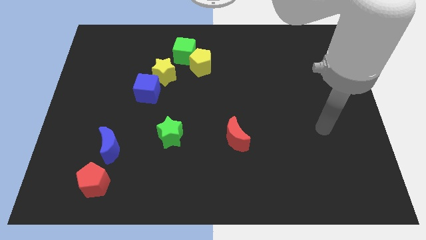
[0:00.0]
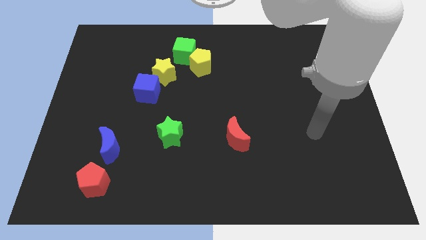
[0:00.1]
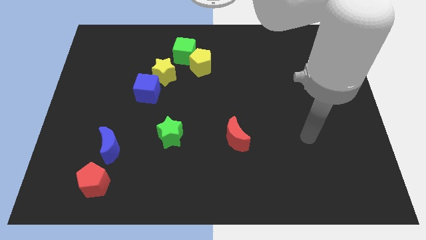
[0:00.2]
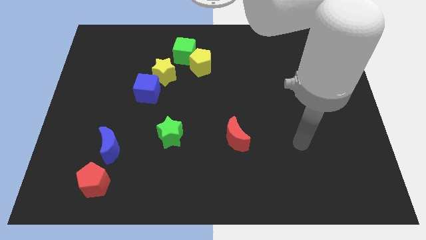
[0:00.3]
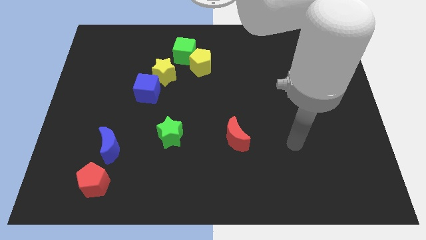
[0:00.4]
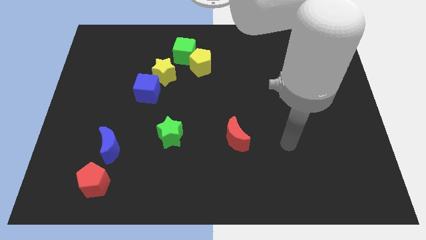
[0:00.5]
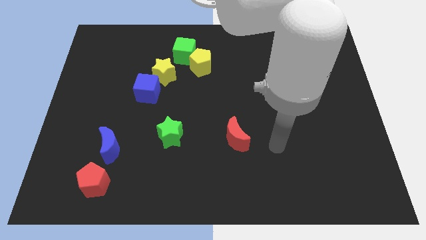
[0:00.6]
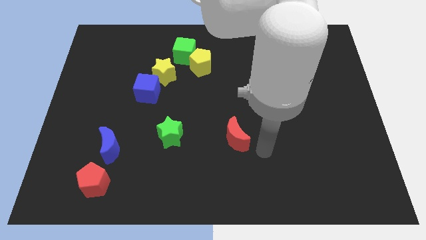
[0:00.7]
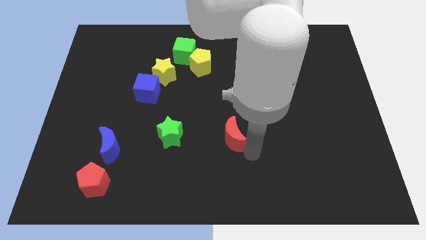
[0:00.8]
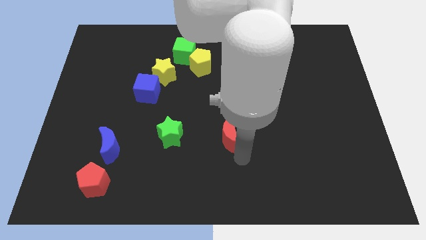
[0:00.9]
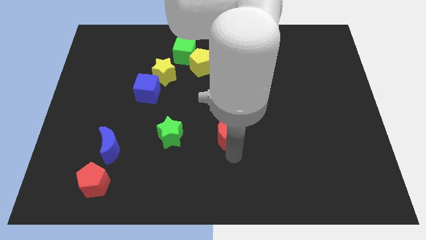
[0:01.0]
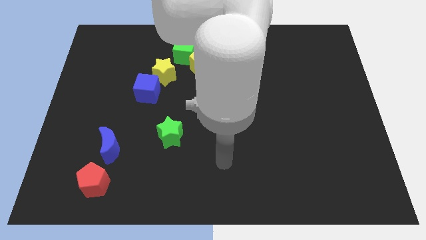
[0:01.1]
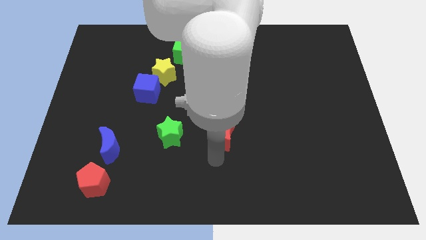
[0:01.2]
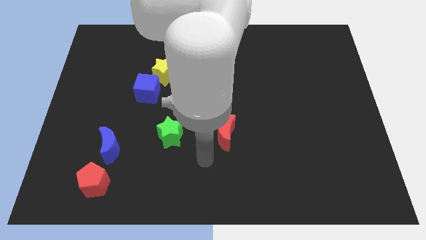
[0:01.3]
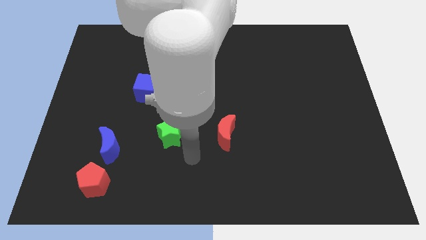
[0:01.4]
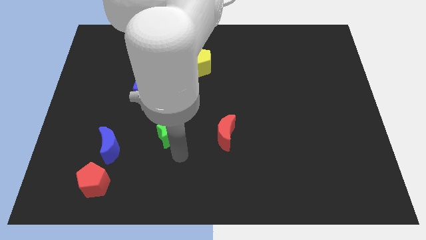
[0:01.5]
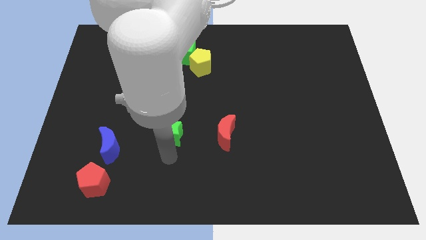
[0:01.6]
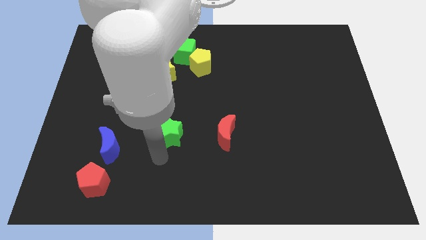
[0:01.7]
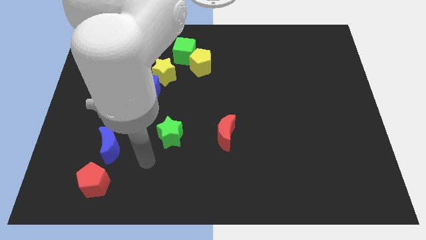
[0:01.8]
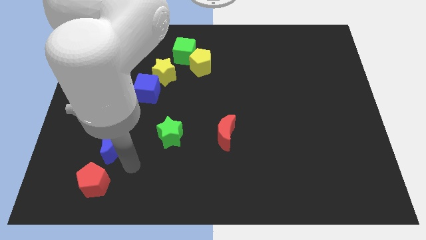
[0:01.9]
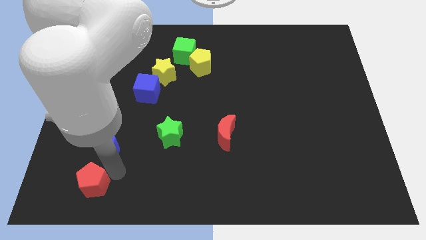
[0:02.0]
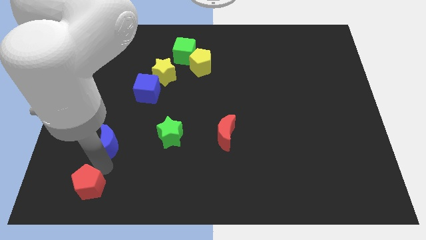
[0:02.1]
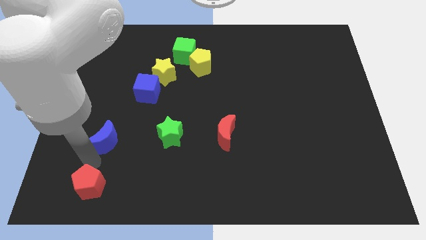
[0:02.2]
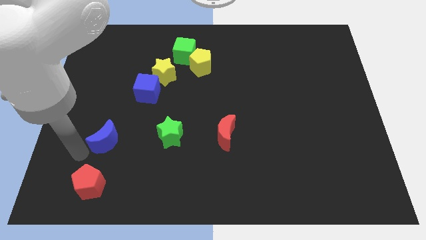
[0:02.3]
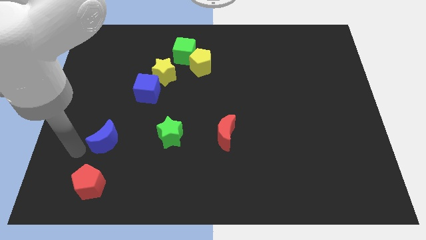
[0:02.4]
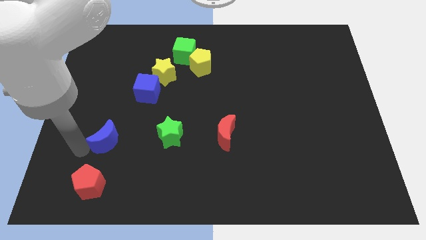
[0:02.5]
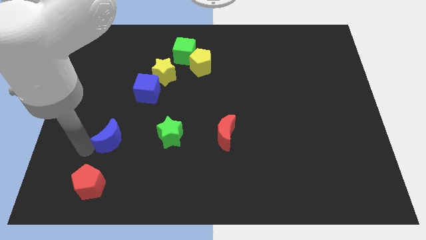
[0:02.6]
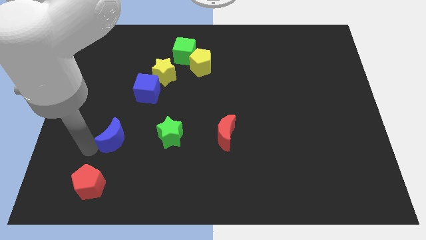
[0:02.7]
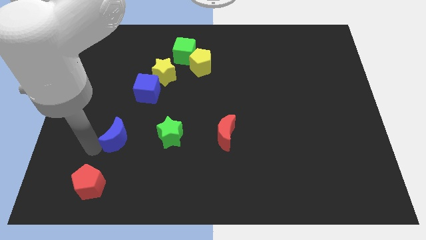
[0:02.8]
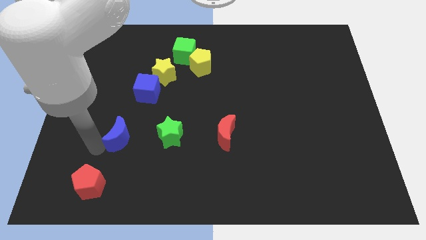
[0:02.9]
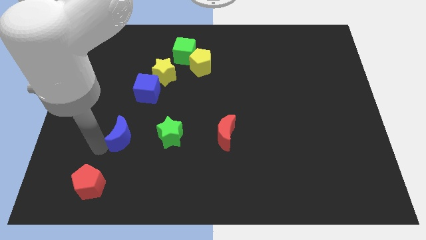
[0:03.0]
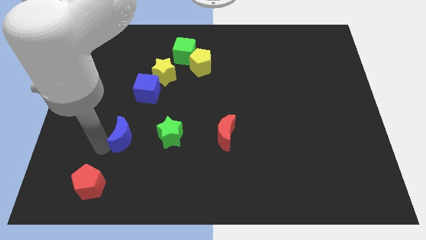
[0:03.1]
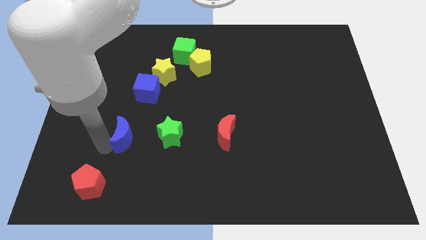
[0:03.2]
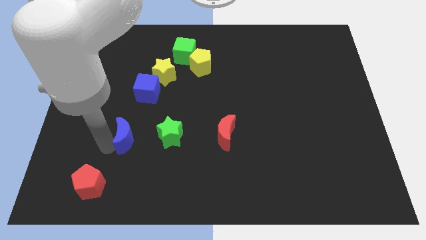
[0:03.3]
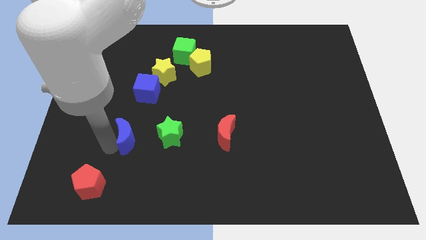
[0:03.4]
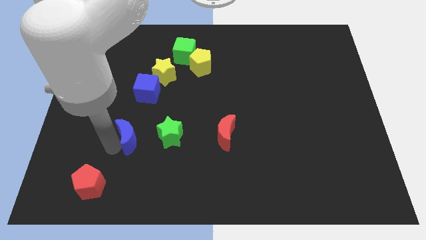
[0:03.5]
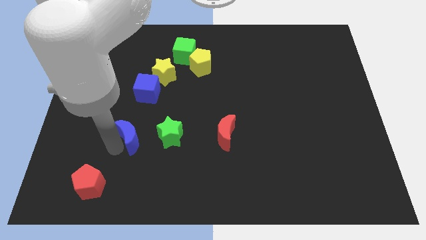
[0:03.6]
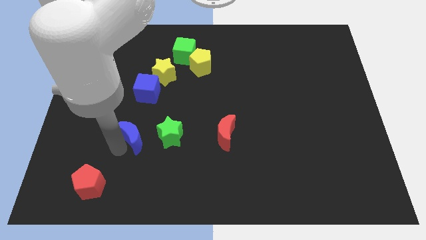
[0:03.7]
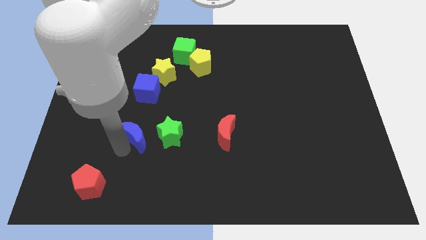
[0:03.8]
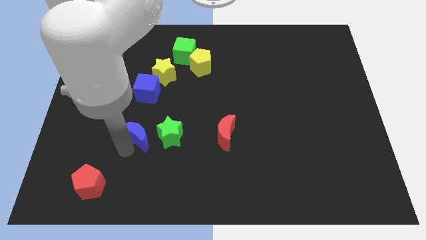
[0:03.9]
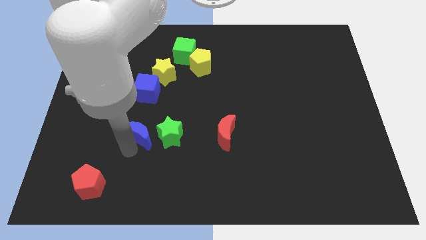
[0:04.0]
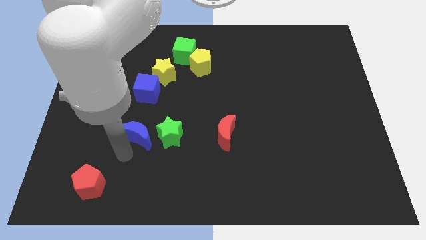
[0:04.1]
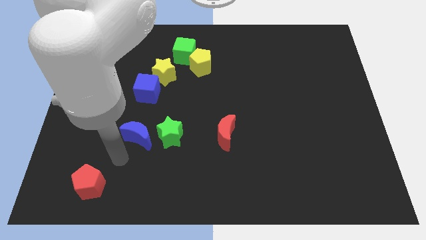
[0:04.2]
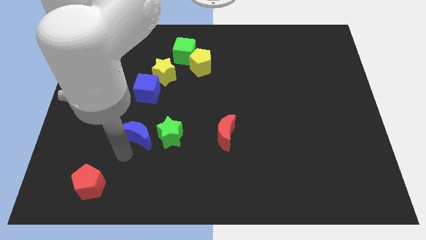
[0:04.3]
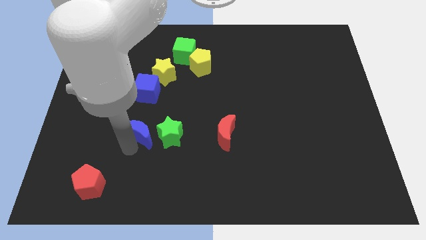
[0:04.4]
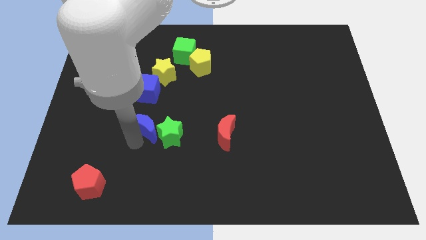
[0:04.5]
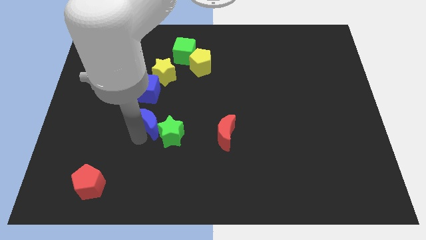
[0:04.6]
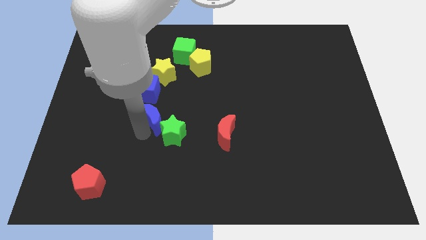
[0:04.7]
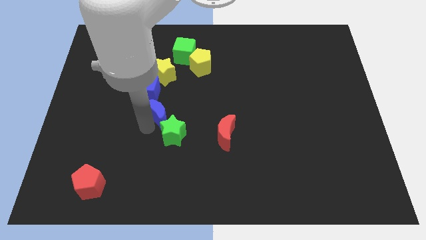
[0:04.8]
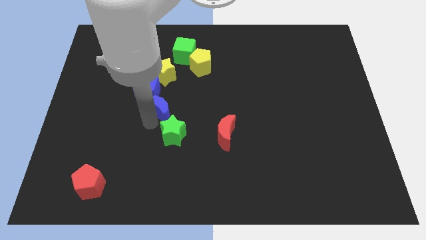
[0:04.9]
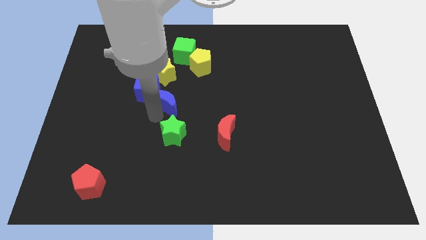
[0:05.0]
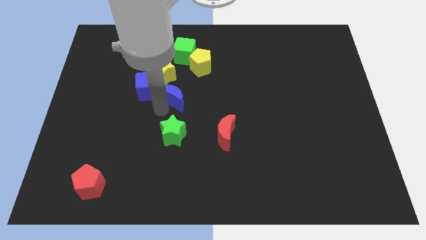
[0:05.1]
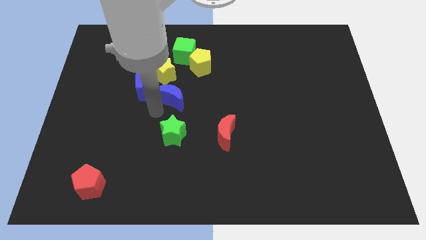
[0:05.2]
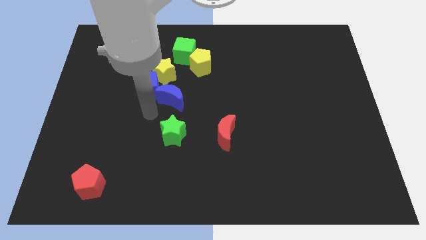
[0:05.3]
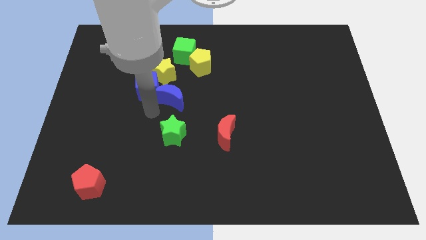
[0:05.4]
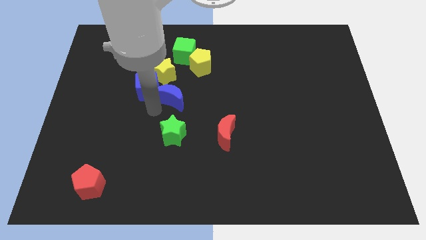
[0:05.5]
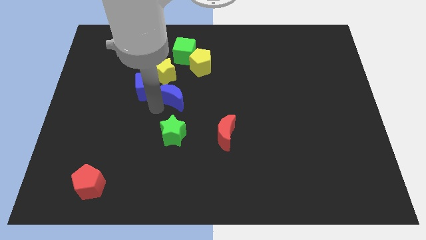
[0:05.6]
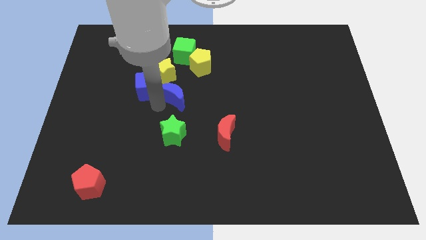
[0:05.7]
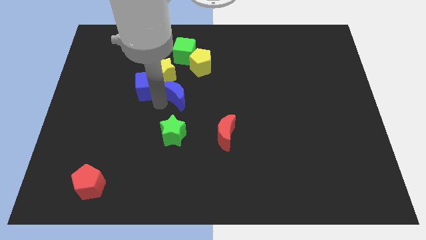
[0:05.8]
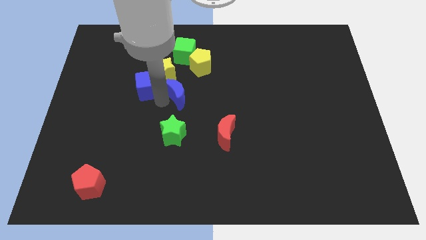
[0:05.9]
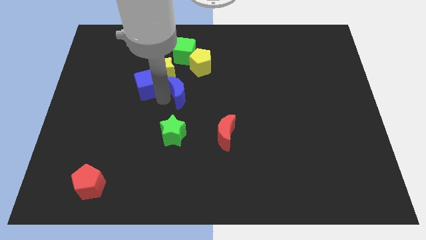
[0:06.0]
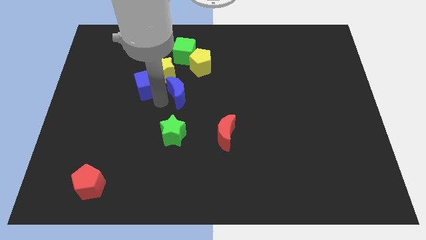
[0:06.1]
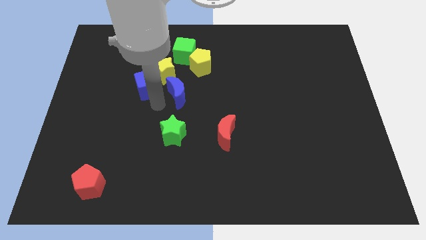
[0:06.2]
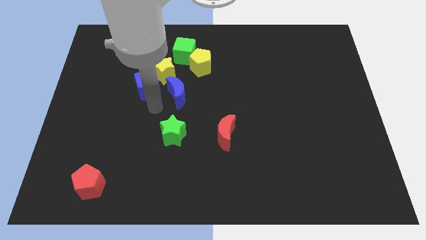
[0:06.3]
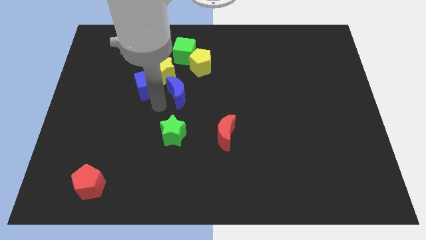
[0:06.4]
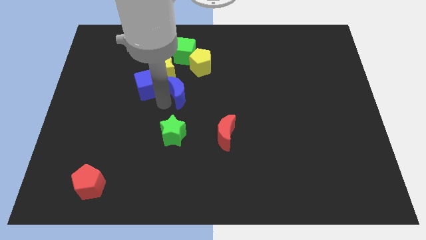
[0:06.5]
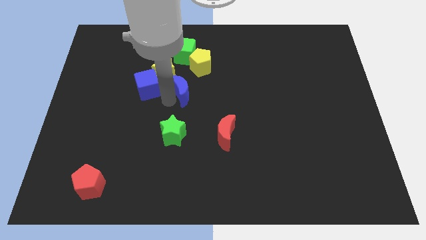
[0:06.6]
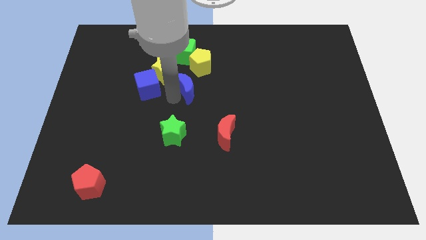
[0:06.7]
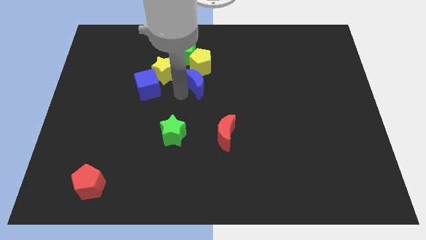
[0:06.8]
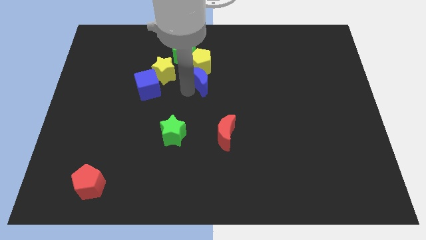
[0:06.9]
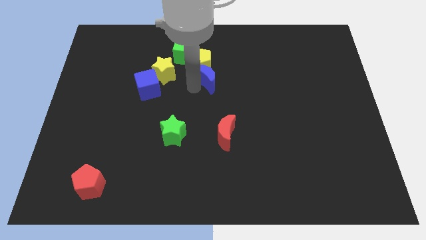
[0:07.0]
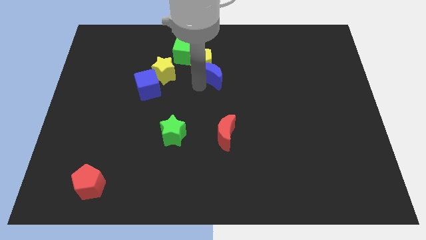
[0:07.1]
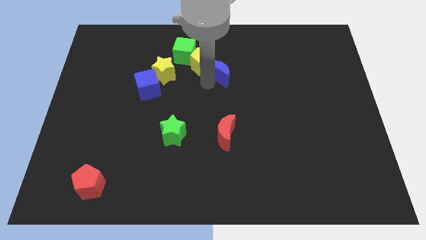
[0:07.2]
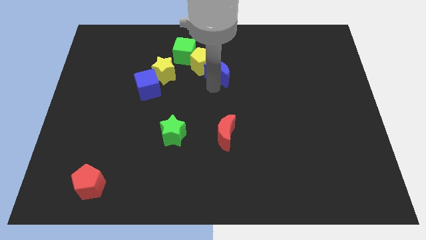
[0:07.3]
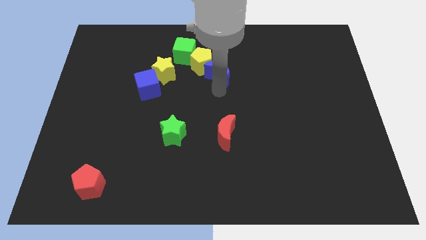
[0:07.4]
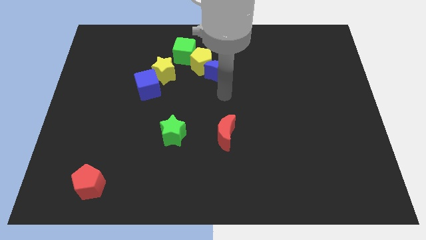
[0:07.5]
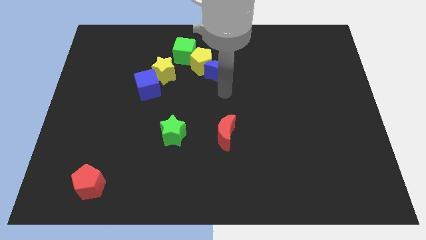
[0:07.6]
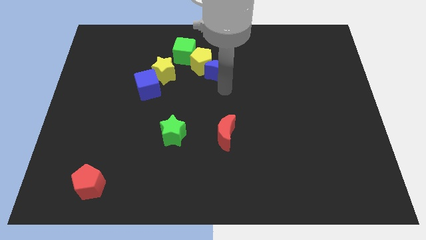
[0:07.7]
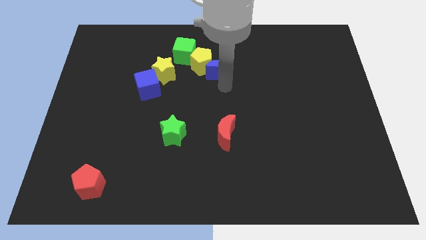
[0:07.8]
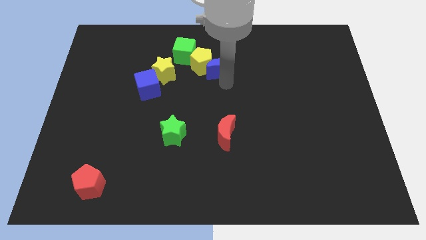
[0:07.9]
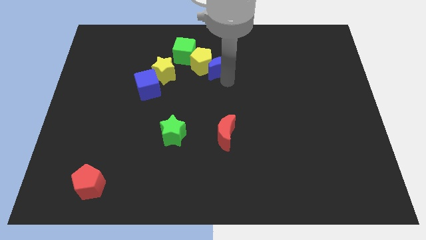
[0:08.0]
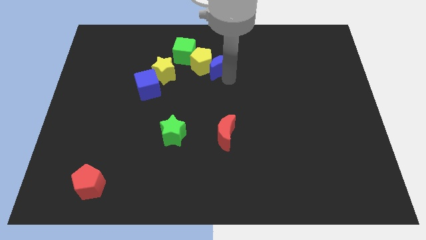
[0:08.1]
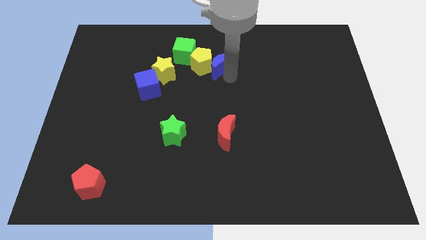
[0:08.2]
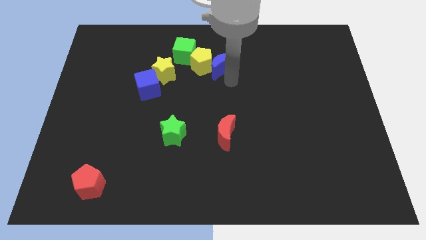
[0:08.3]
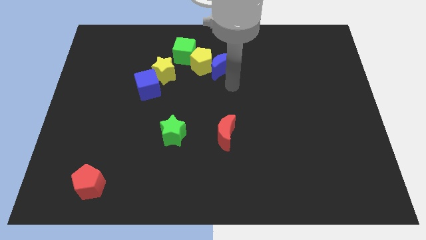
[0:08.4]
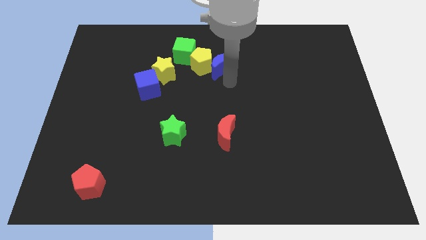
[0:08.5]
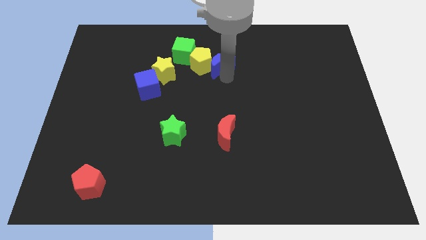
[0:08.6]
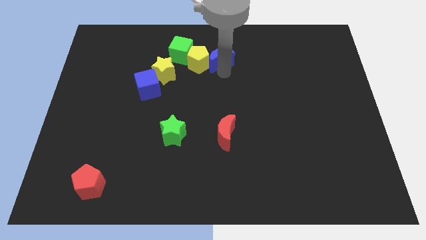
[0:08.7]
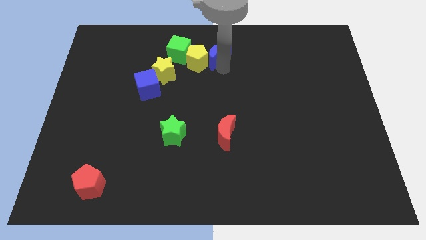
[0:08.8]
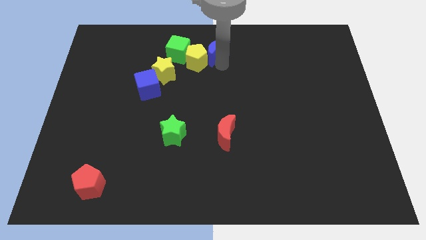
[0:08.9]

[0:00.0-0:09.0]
put the blue moon to the top side
